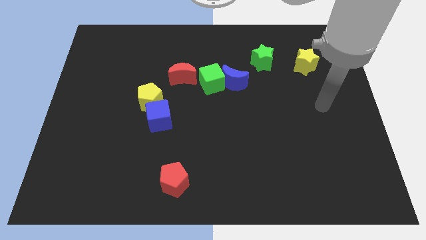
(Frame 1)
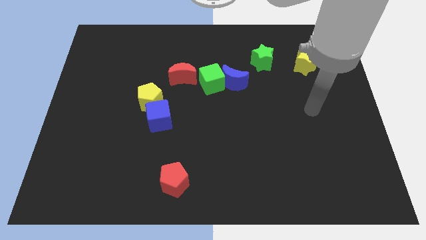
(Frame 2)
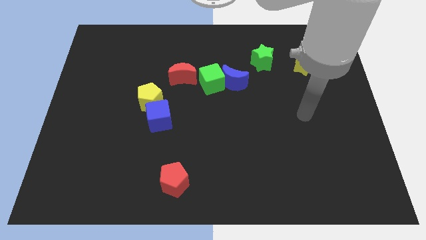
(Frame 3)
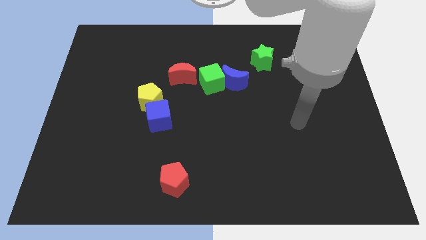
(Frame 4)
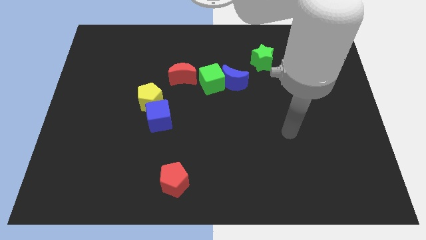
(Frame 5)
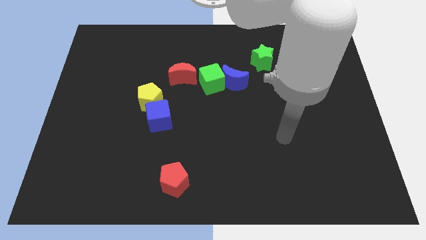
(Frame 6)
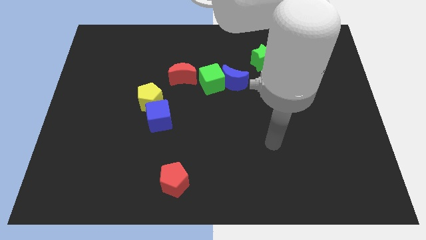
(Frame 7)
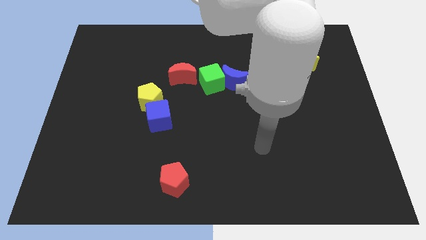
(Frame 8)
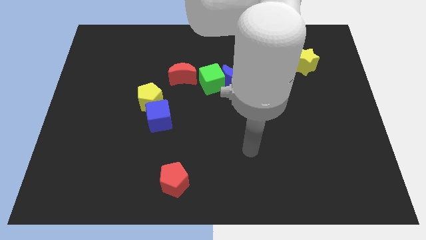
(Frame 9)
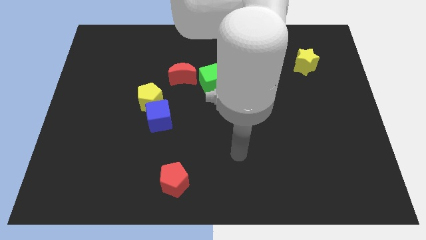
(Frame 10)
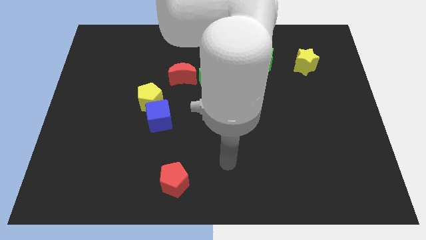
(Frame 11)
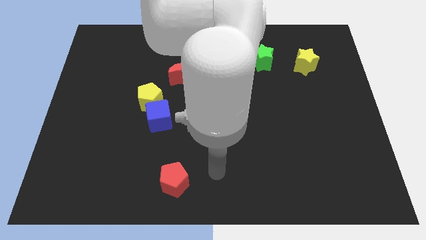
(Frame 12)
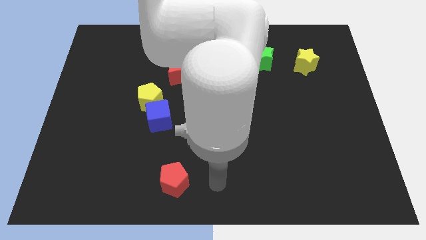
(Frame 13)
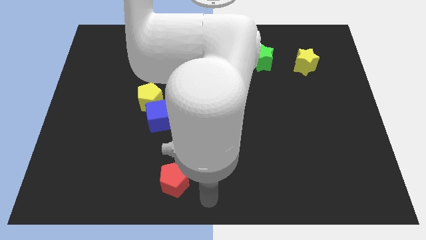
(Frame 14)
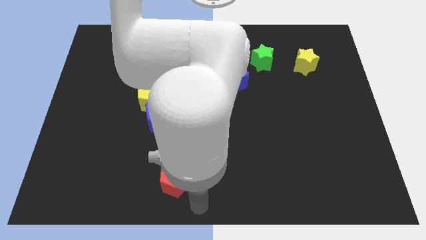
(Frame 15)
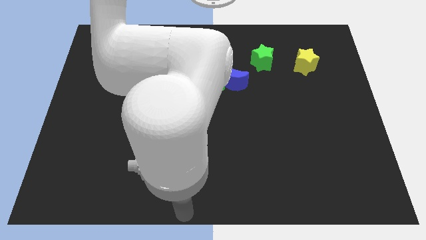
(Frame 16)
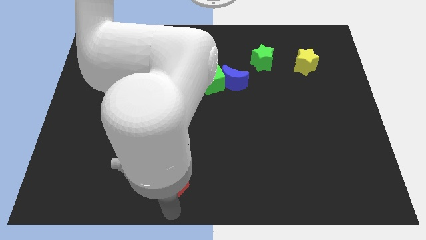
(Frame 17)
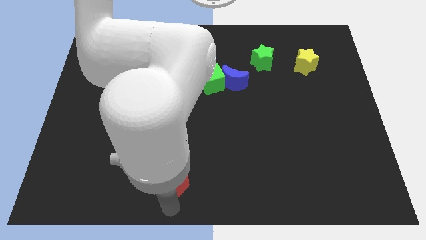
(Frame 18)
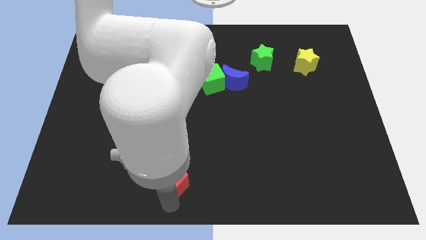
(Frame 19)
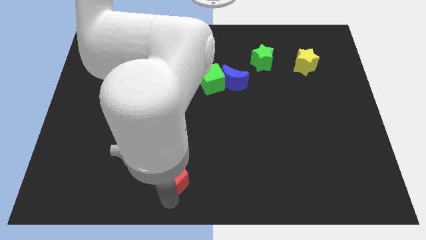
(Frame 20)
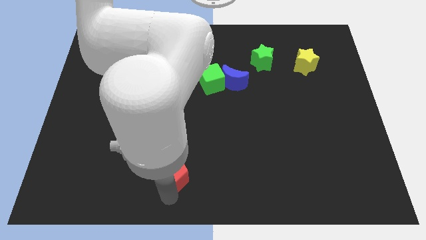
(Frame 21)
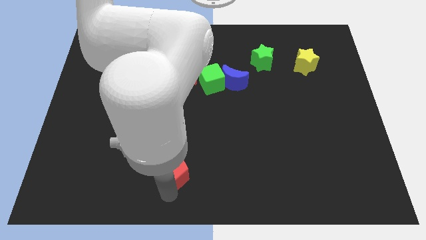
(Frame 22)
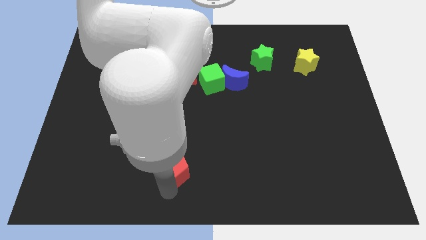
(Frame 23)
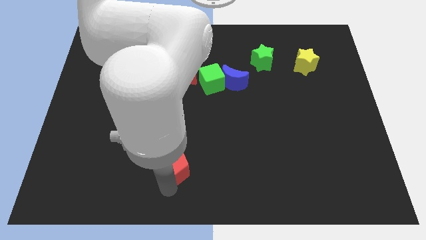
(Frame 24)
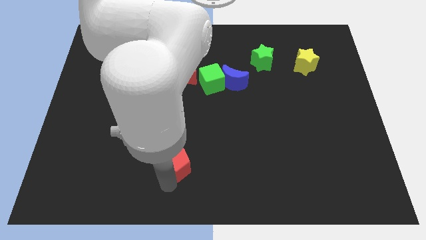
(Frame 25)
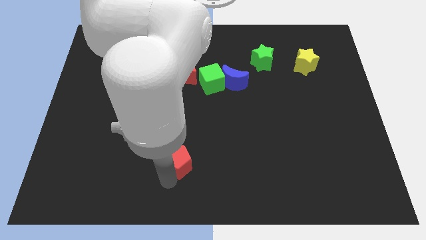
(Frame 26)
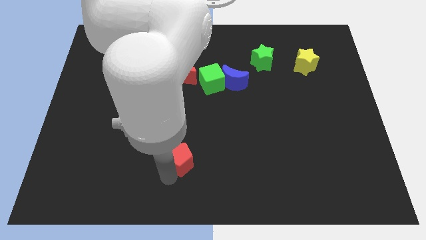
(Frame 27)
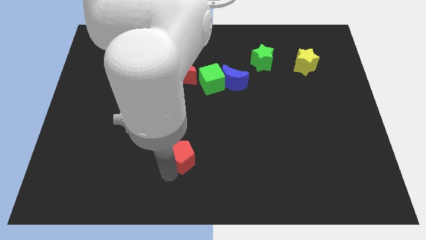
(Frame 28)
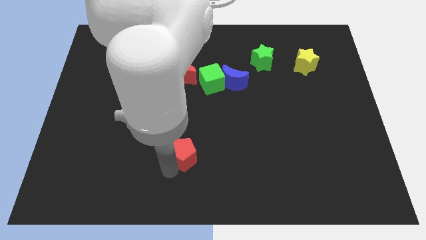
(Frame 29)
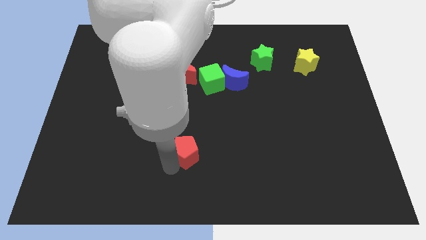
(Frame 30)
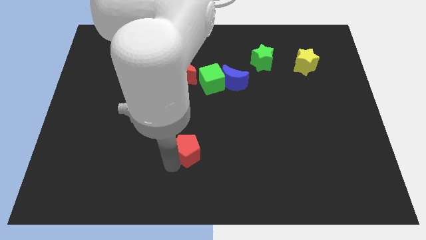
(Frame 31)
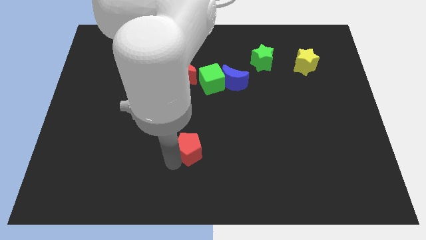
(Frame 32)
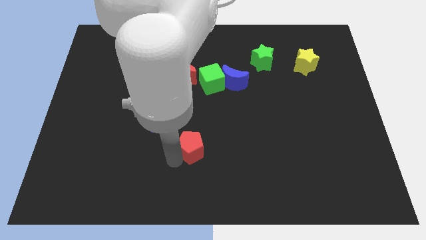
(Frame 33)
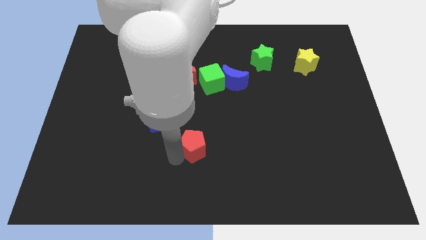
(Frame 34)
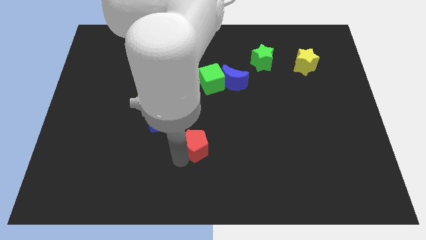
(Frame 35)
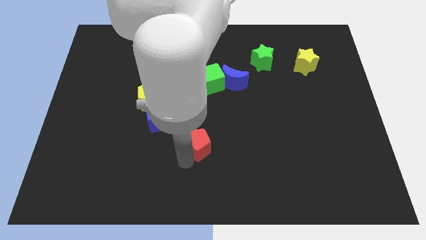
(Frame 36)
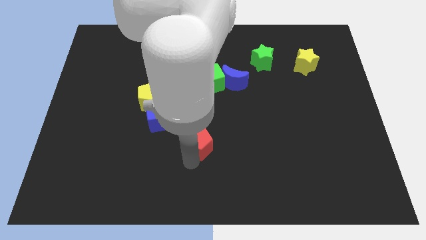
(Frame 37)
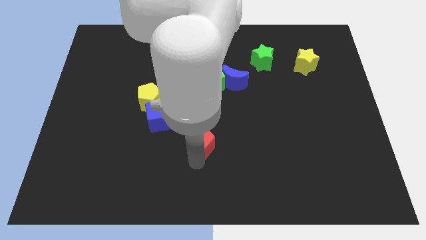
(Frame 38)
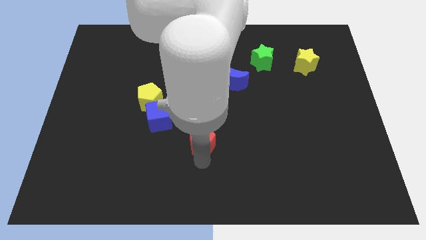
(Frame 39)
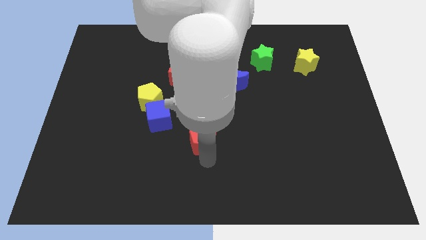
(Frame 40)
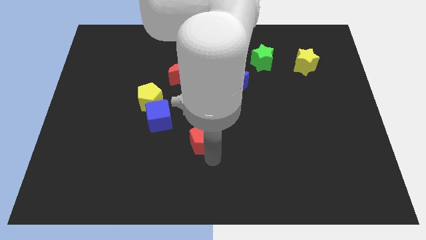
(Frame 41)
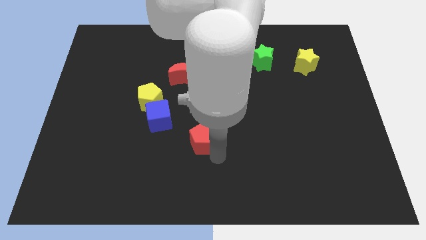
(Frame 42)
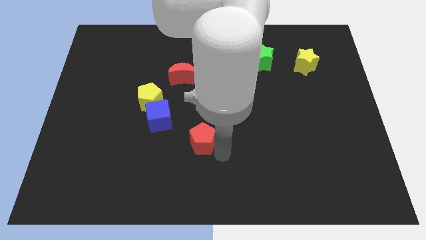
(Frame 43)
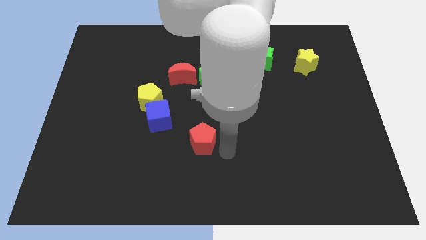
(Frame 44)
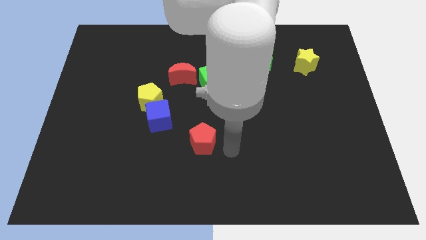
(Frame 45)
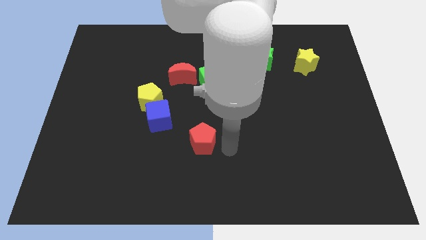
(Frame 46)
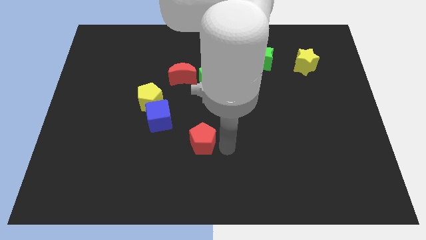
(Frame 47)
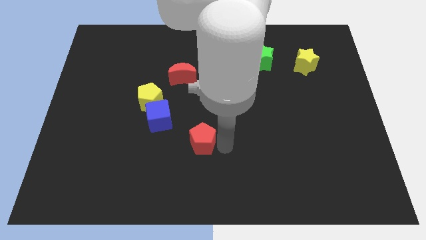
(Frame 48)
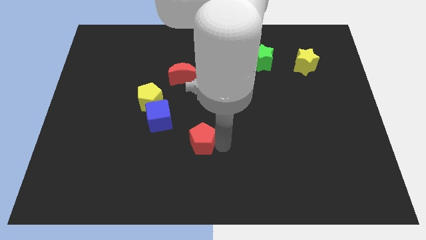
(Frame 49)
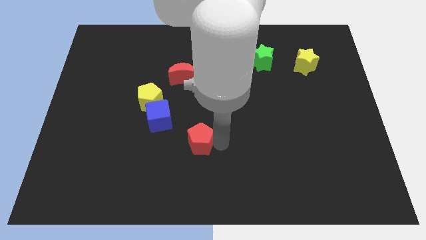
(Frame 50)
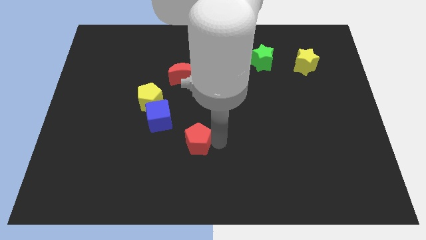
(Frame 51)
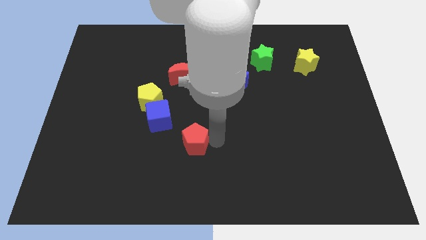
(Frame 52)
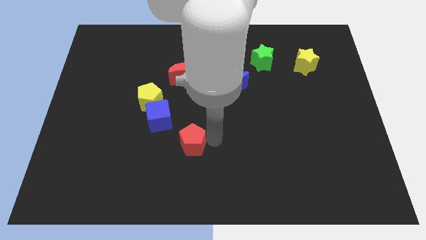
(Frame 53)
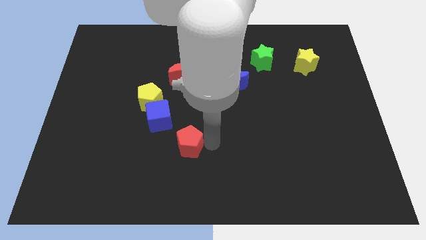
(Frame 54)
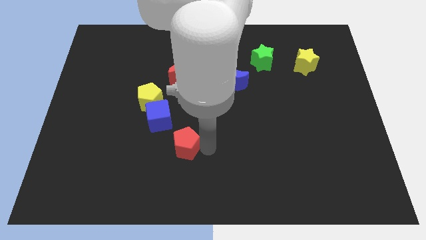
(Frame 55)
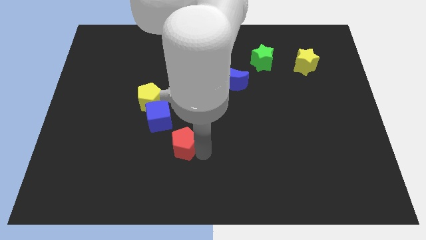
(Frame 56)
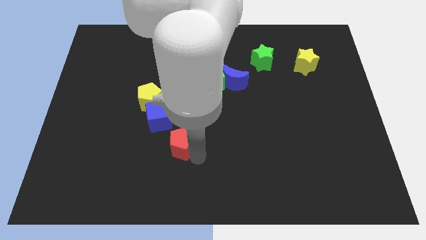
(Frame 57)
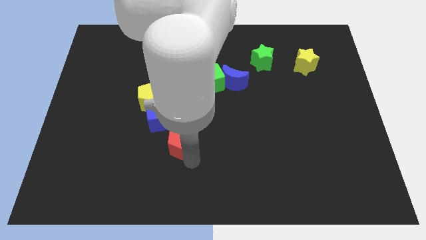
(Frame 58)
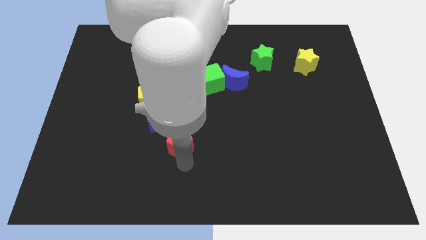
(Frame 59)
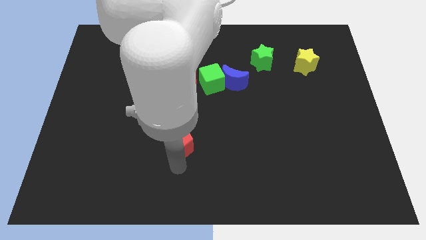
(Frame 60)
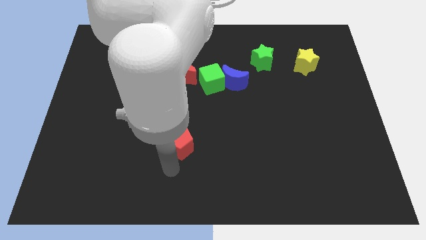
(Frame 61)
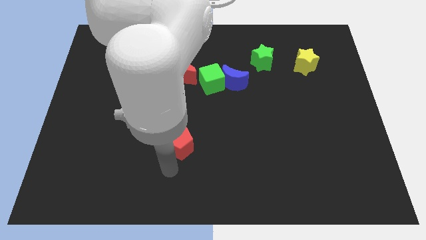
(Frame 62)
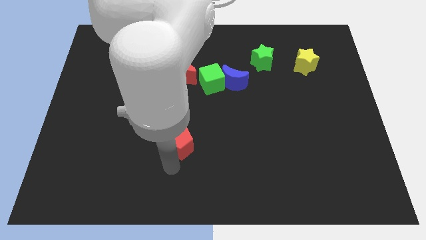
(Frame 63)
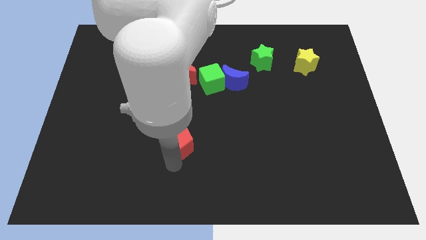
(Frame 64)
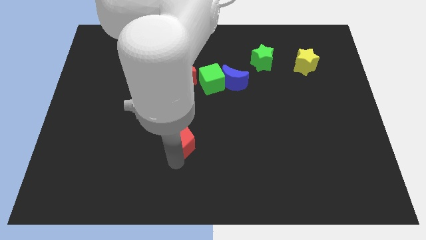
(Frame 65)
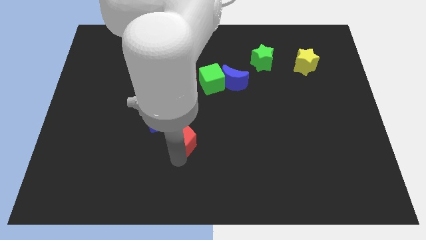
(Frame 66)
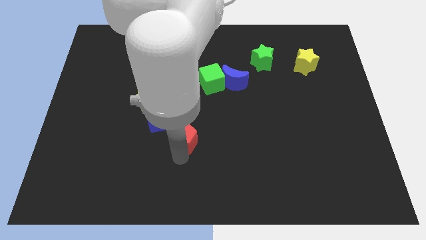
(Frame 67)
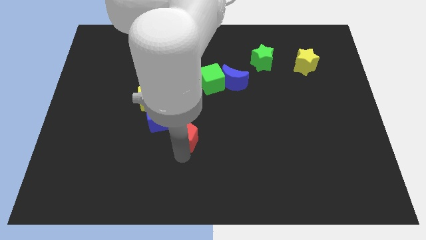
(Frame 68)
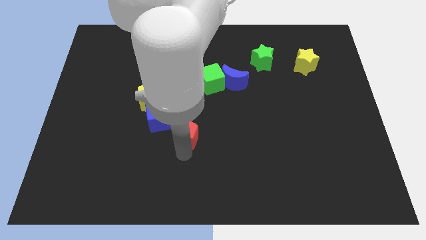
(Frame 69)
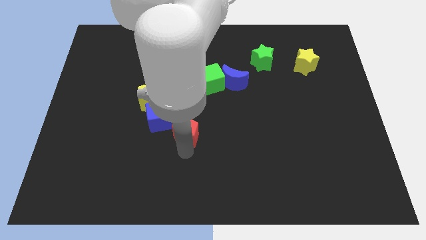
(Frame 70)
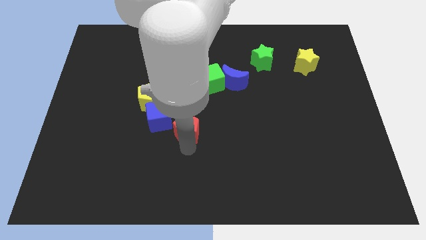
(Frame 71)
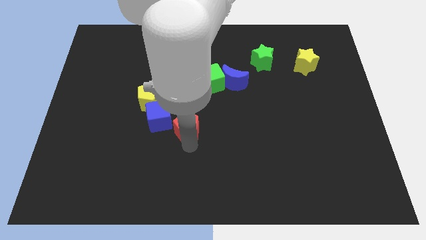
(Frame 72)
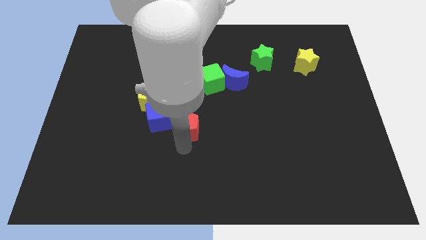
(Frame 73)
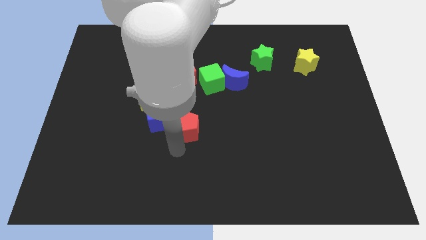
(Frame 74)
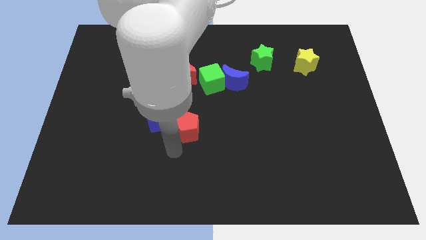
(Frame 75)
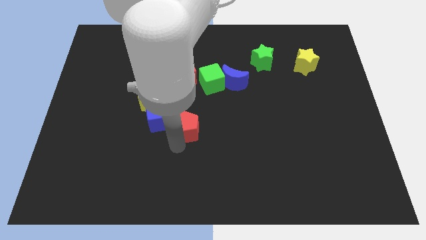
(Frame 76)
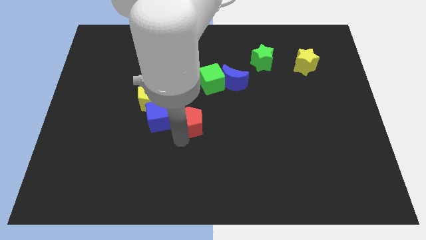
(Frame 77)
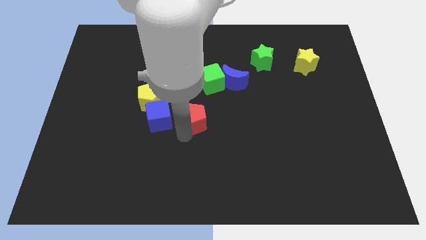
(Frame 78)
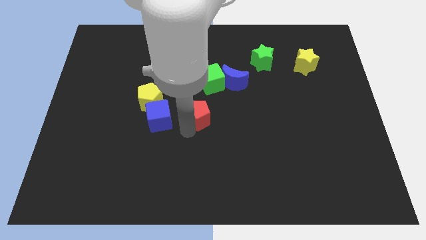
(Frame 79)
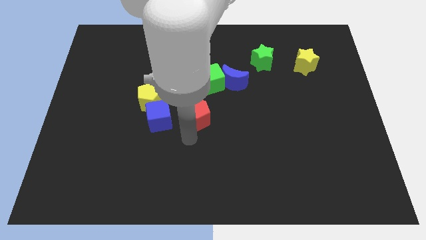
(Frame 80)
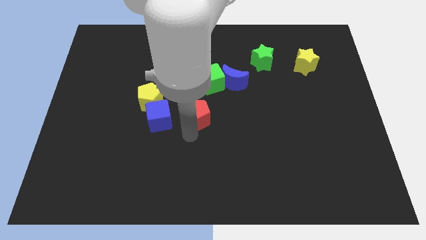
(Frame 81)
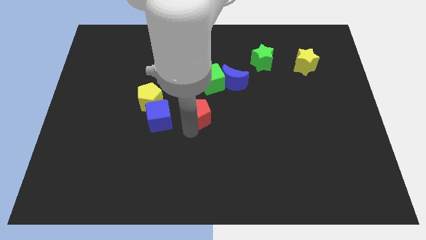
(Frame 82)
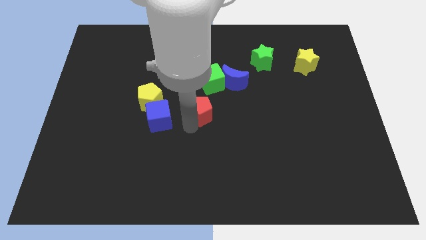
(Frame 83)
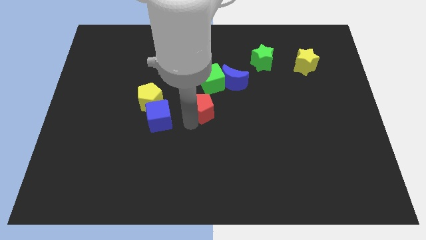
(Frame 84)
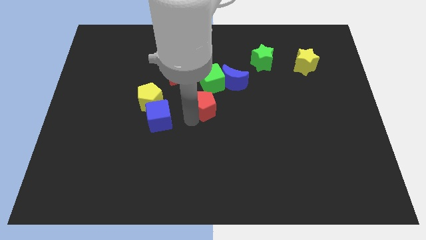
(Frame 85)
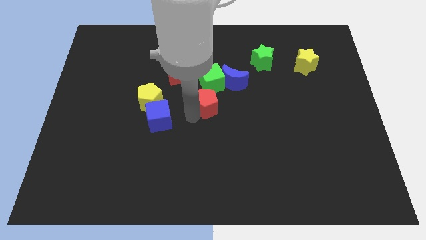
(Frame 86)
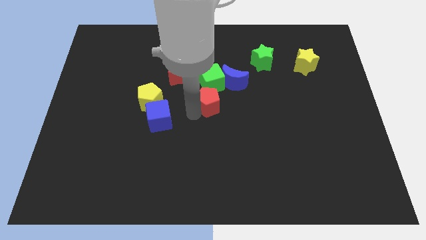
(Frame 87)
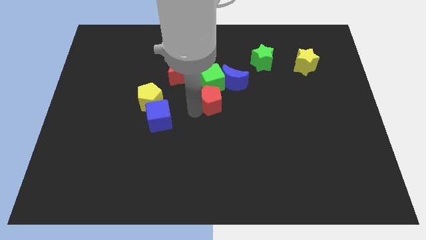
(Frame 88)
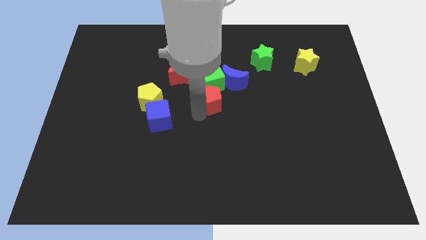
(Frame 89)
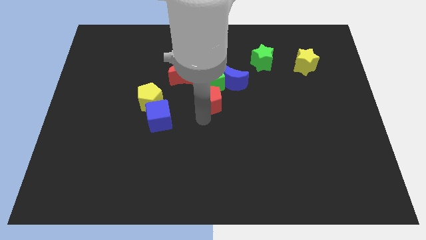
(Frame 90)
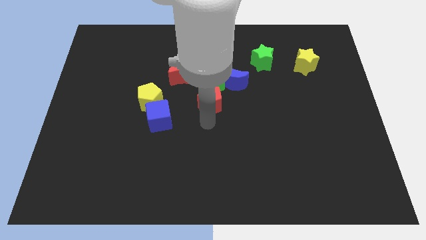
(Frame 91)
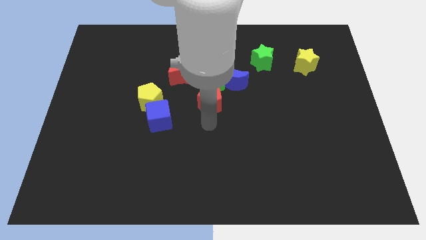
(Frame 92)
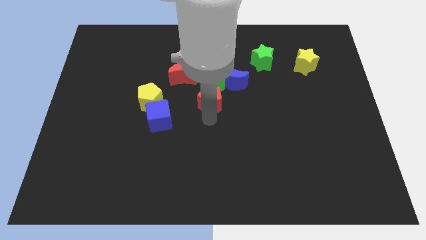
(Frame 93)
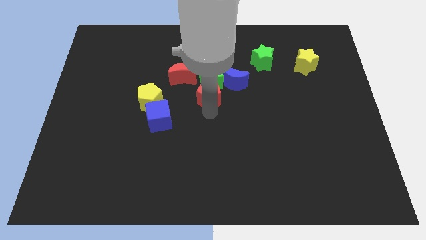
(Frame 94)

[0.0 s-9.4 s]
move the red pentagon next to the green cube
